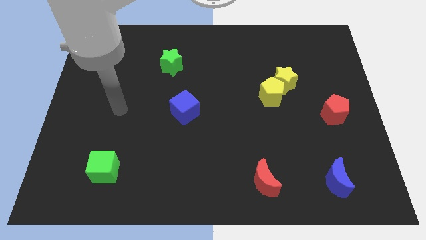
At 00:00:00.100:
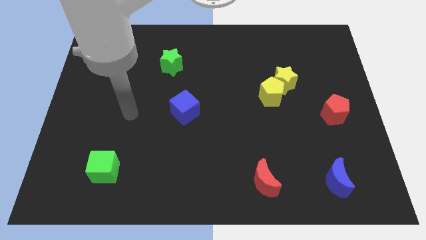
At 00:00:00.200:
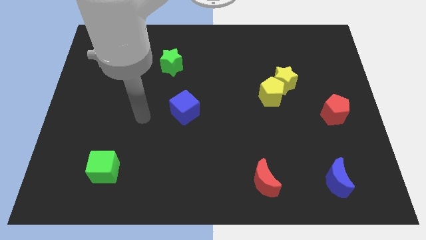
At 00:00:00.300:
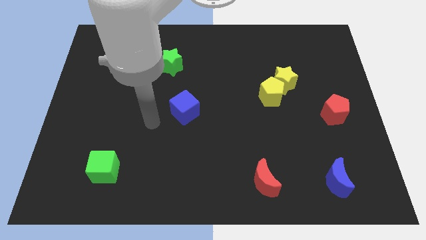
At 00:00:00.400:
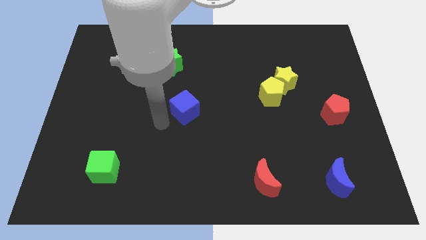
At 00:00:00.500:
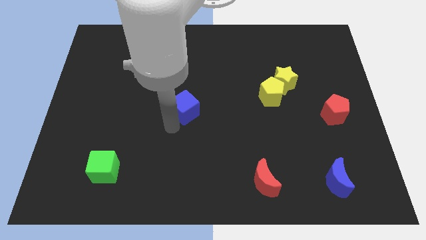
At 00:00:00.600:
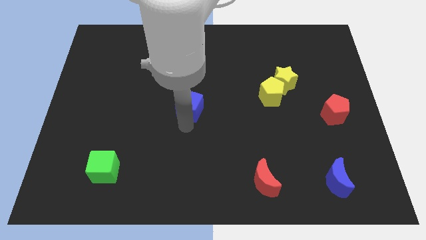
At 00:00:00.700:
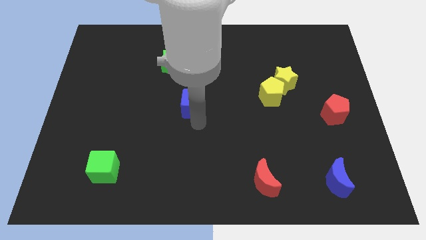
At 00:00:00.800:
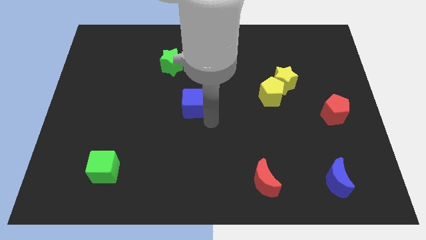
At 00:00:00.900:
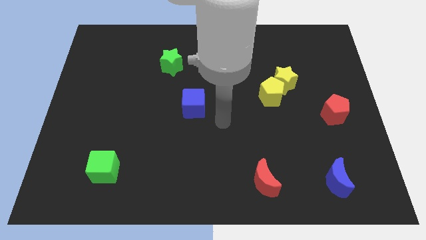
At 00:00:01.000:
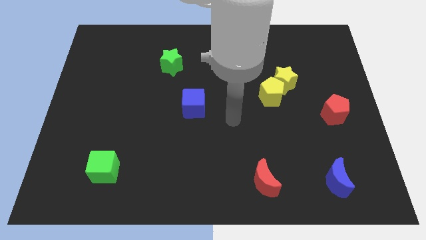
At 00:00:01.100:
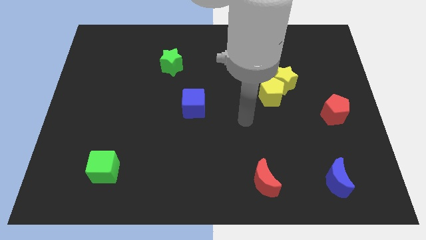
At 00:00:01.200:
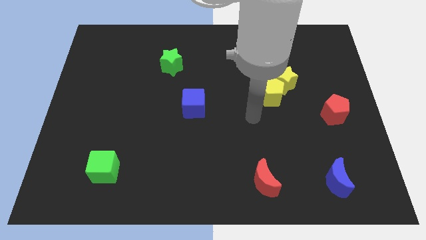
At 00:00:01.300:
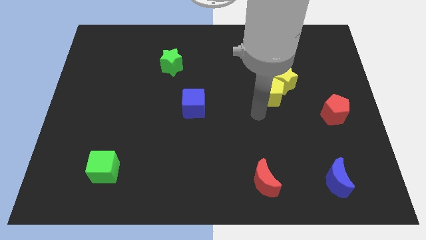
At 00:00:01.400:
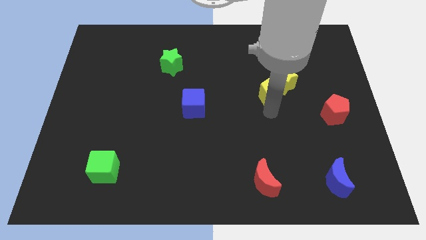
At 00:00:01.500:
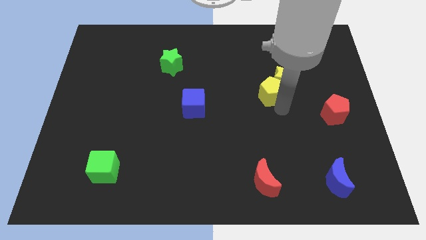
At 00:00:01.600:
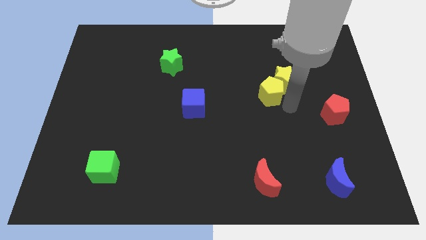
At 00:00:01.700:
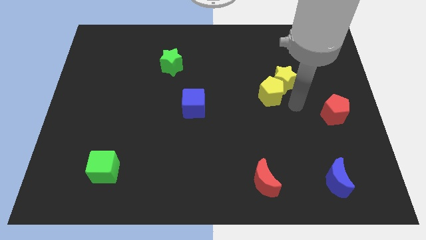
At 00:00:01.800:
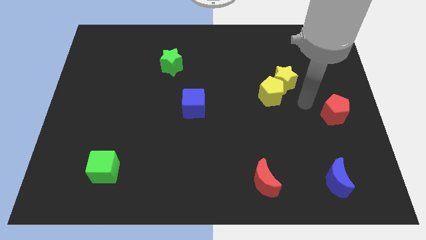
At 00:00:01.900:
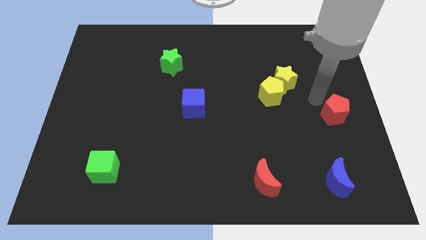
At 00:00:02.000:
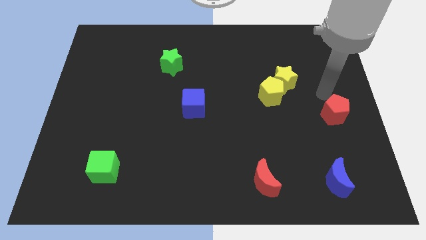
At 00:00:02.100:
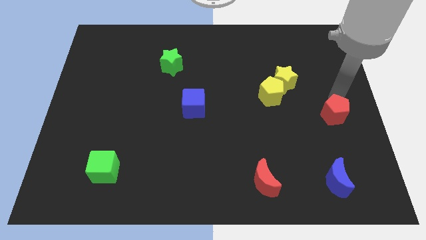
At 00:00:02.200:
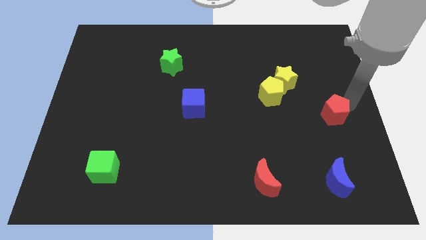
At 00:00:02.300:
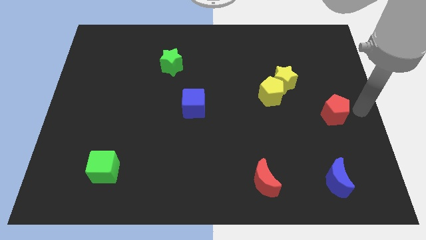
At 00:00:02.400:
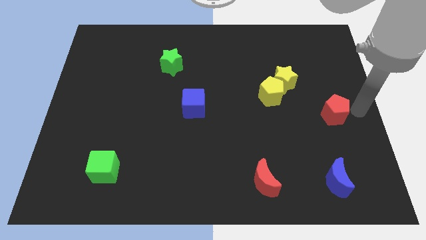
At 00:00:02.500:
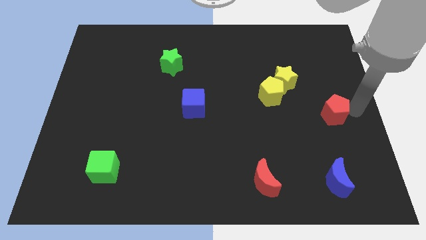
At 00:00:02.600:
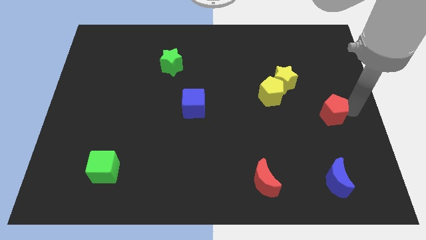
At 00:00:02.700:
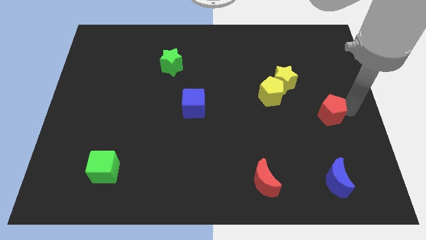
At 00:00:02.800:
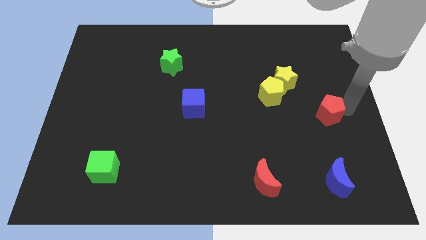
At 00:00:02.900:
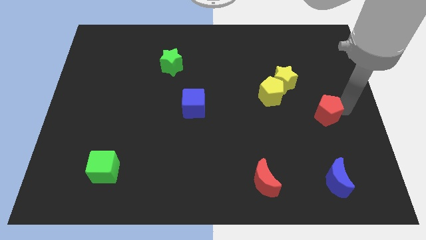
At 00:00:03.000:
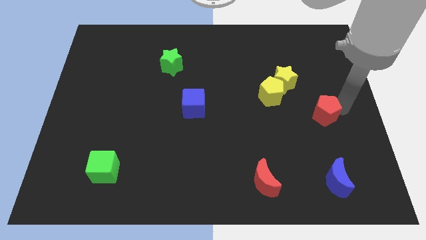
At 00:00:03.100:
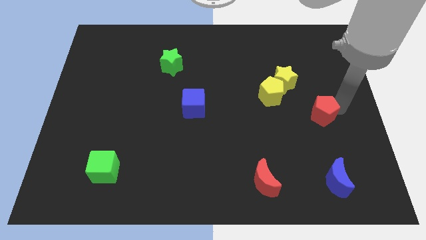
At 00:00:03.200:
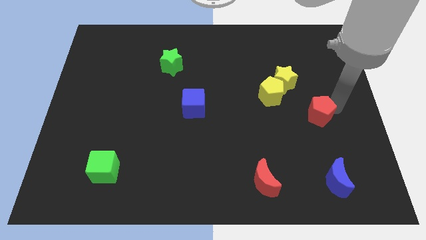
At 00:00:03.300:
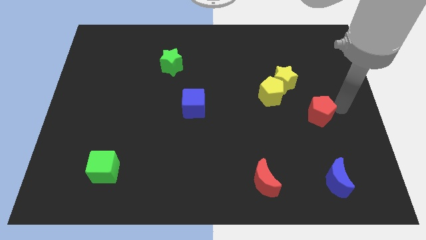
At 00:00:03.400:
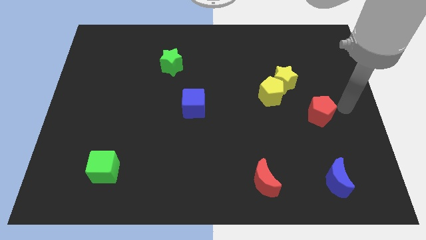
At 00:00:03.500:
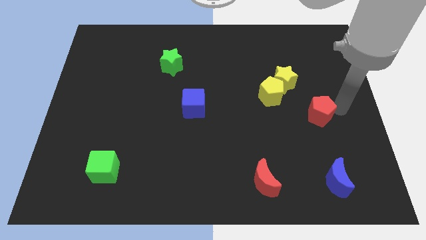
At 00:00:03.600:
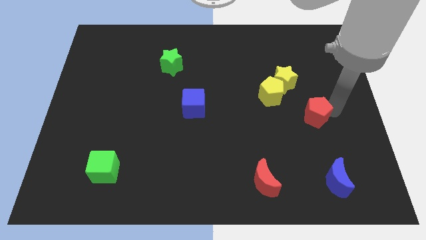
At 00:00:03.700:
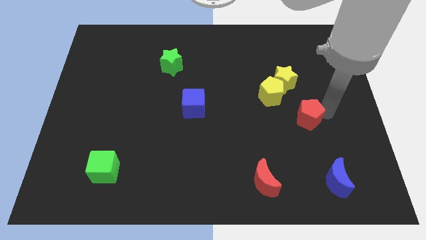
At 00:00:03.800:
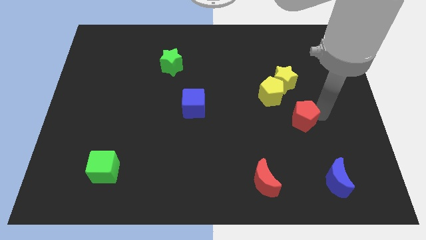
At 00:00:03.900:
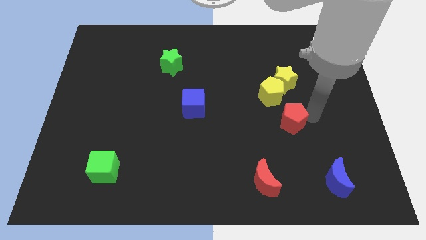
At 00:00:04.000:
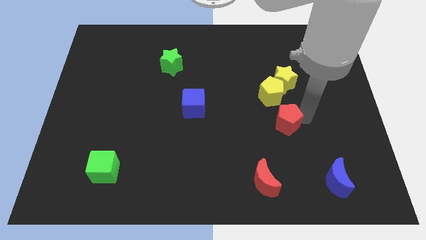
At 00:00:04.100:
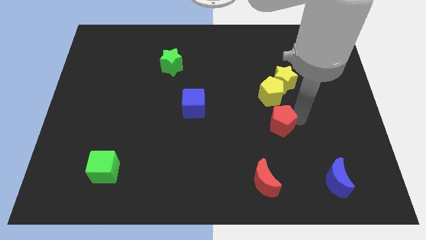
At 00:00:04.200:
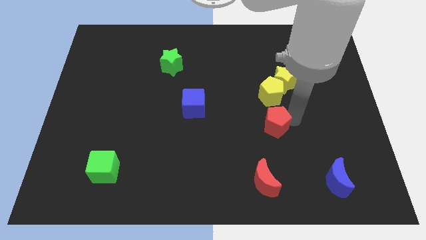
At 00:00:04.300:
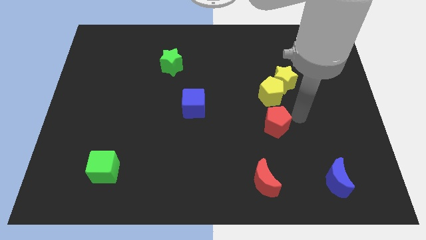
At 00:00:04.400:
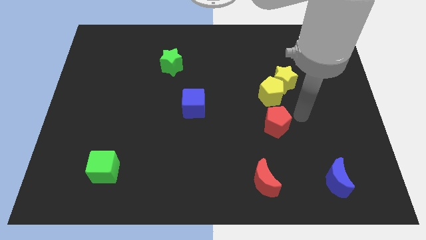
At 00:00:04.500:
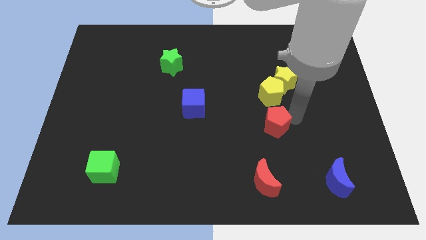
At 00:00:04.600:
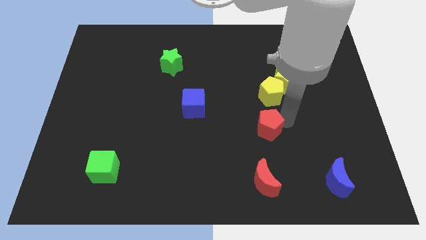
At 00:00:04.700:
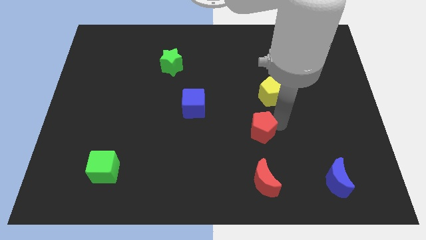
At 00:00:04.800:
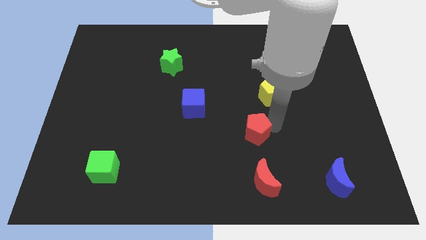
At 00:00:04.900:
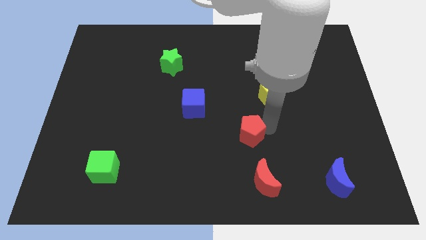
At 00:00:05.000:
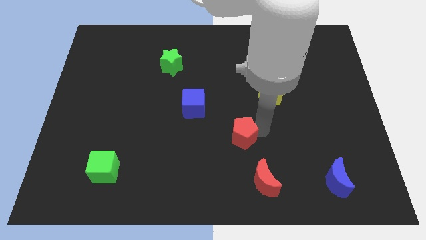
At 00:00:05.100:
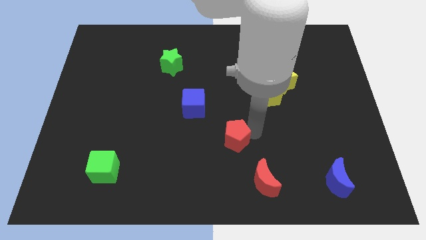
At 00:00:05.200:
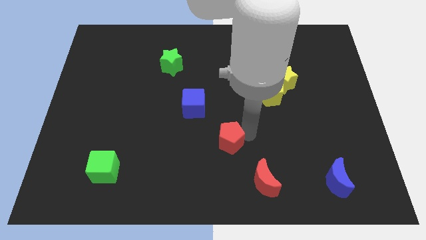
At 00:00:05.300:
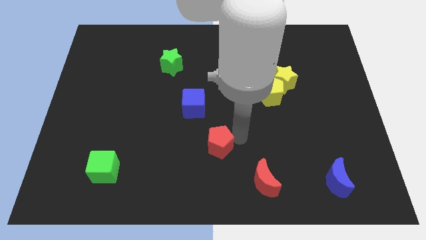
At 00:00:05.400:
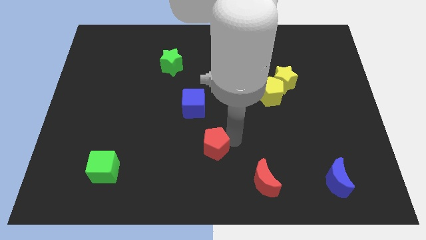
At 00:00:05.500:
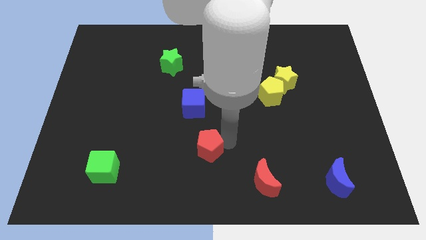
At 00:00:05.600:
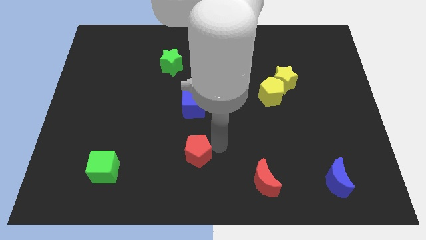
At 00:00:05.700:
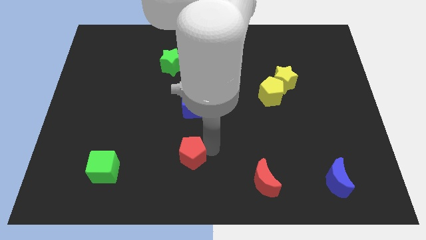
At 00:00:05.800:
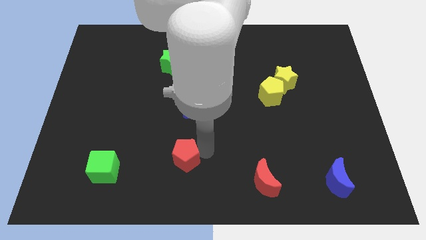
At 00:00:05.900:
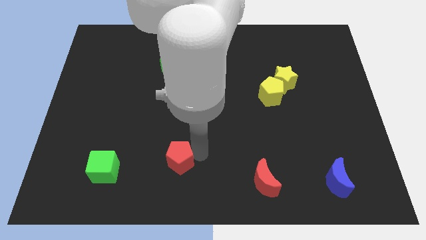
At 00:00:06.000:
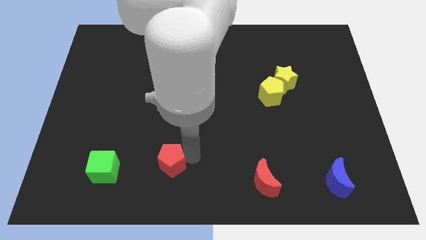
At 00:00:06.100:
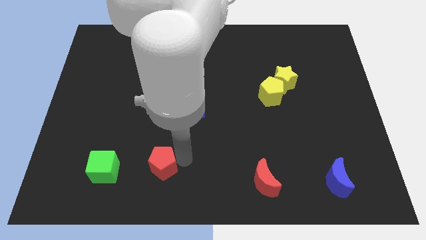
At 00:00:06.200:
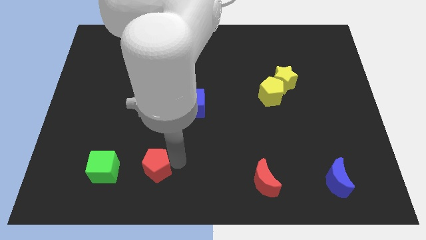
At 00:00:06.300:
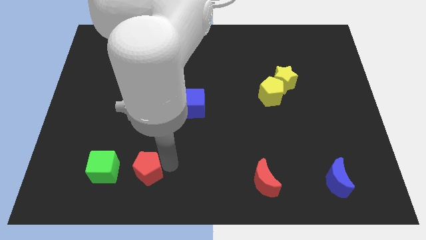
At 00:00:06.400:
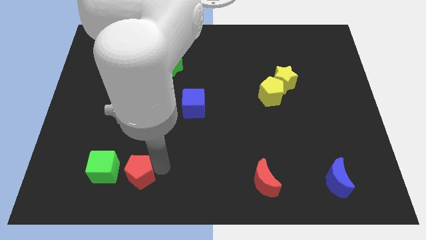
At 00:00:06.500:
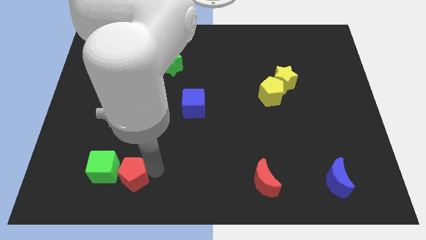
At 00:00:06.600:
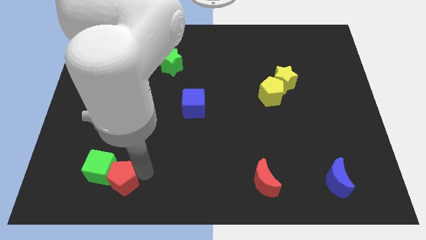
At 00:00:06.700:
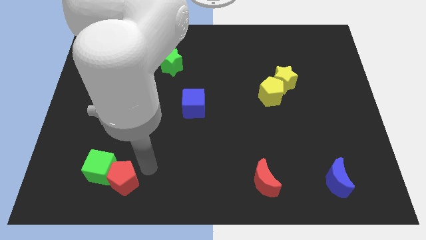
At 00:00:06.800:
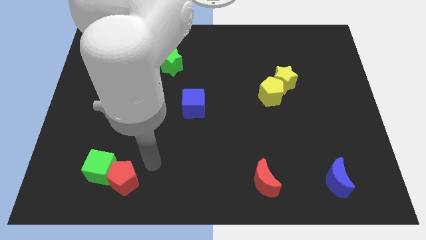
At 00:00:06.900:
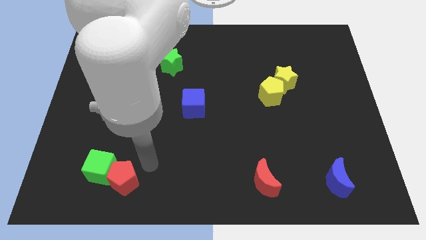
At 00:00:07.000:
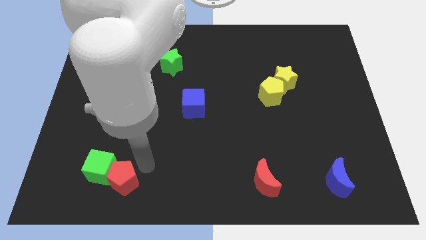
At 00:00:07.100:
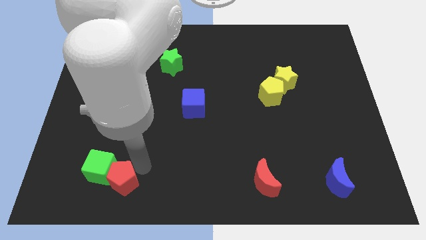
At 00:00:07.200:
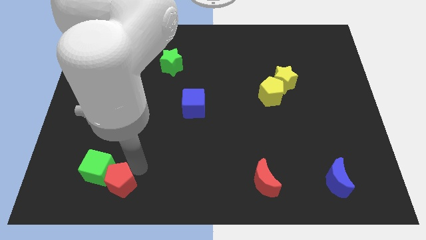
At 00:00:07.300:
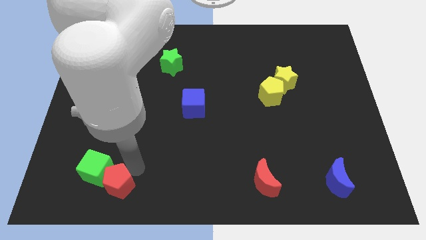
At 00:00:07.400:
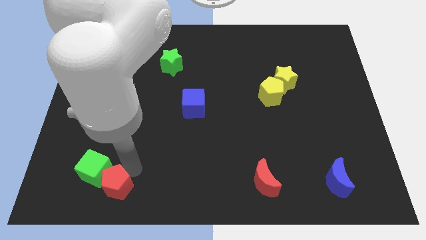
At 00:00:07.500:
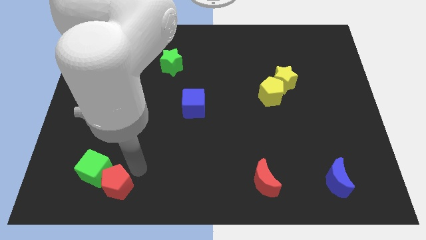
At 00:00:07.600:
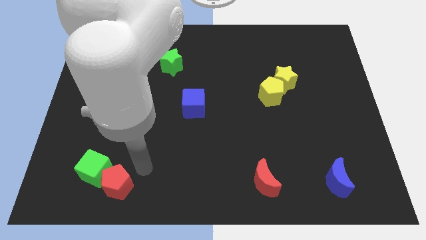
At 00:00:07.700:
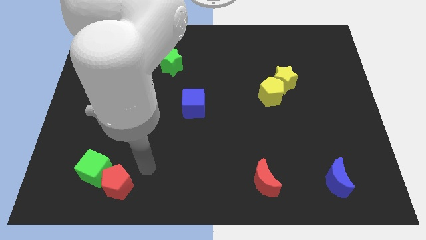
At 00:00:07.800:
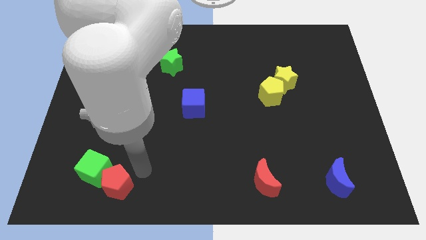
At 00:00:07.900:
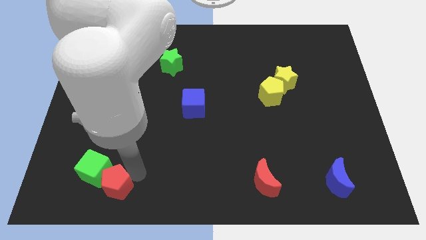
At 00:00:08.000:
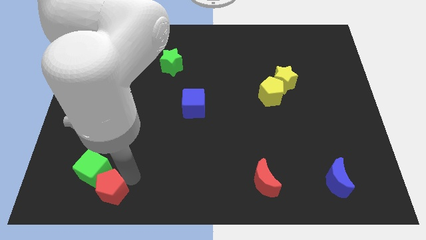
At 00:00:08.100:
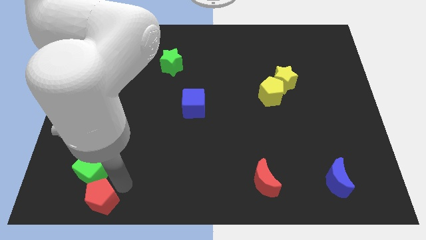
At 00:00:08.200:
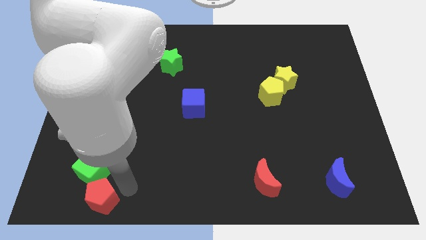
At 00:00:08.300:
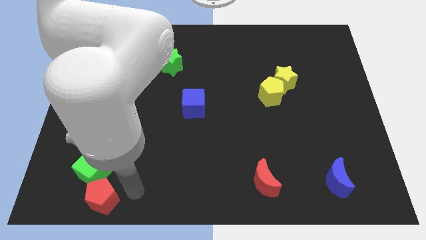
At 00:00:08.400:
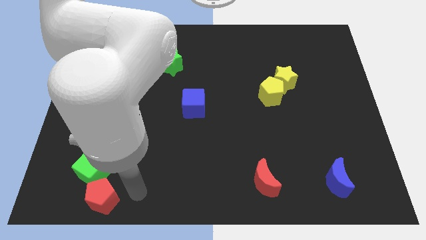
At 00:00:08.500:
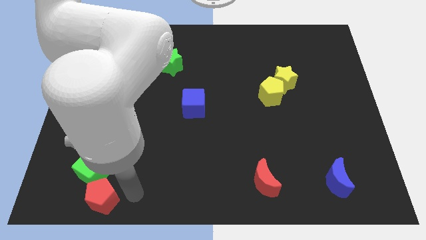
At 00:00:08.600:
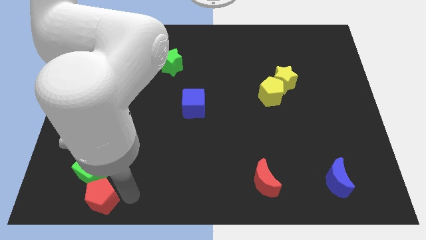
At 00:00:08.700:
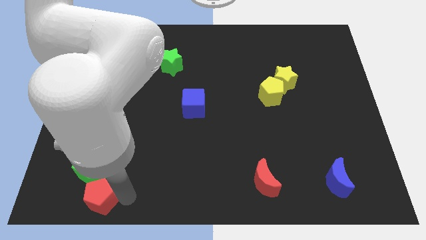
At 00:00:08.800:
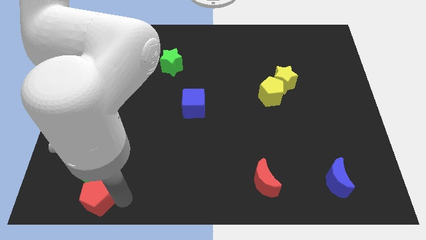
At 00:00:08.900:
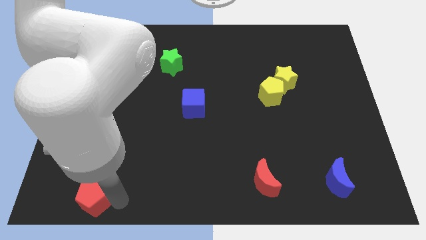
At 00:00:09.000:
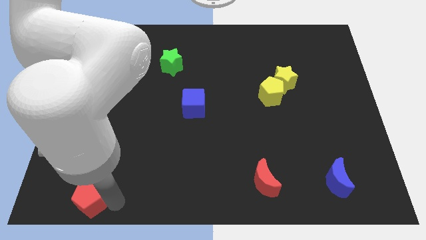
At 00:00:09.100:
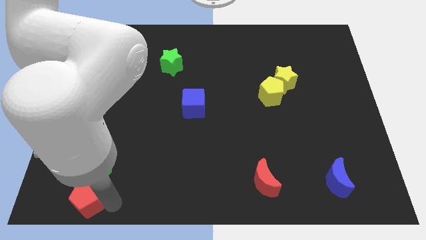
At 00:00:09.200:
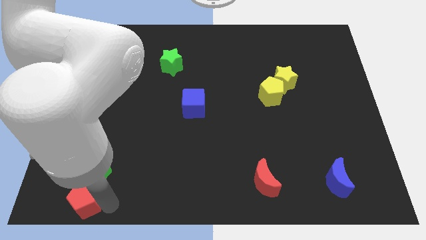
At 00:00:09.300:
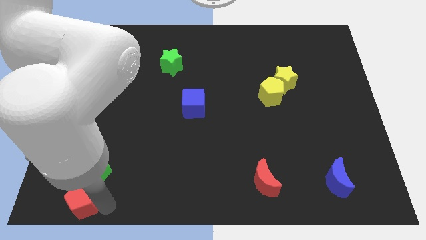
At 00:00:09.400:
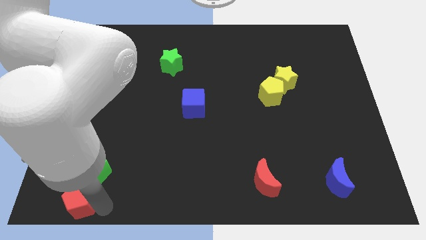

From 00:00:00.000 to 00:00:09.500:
push the red pentagon to the bottom left
